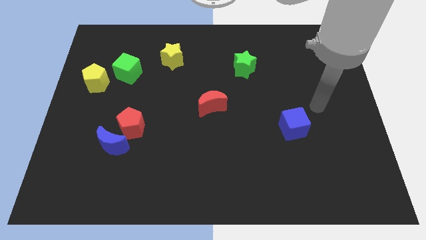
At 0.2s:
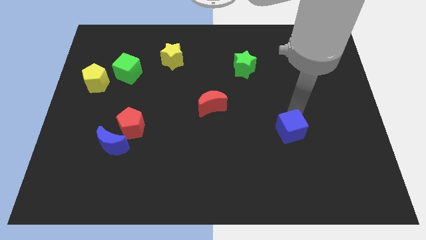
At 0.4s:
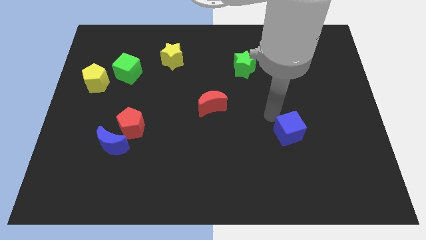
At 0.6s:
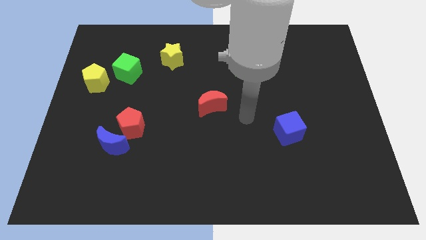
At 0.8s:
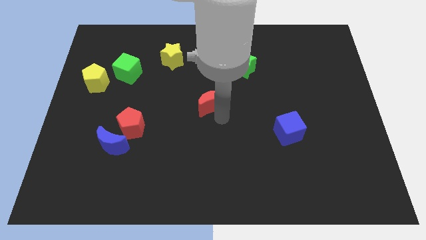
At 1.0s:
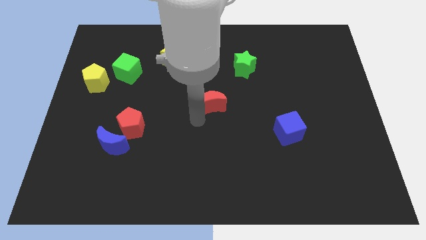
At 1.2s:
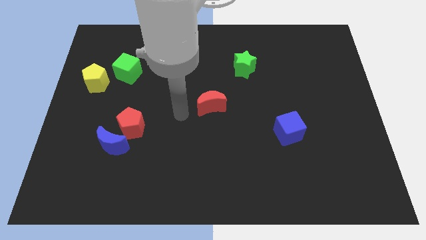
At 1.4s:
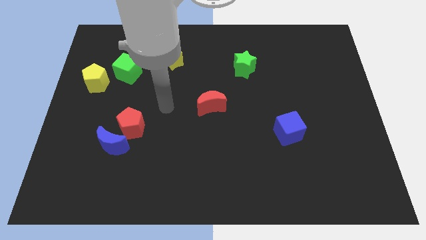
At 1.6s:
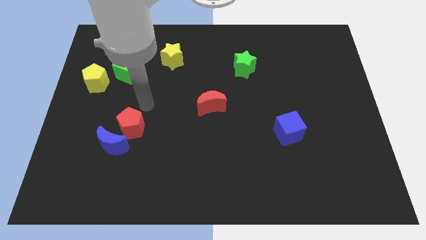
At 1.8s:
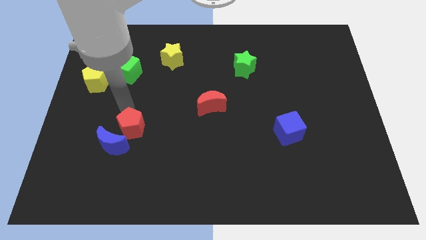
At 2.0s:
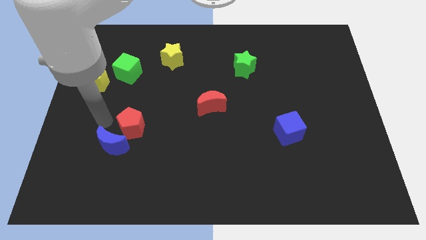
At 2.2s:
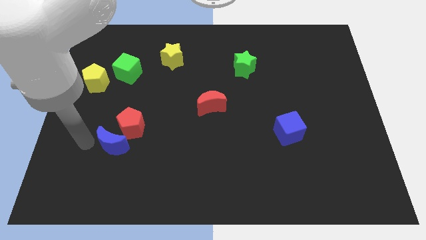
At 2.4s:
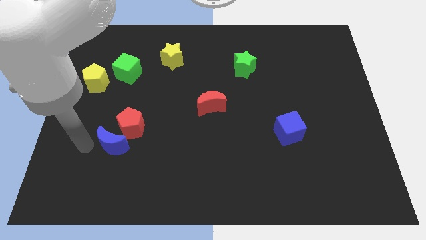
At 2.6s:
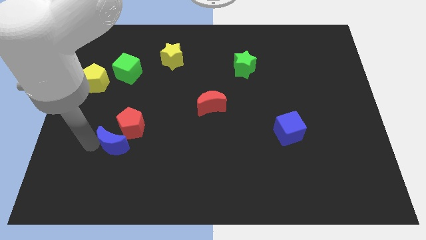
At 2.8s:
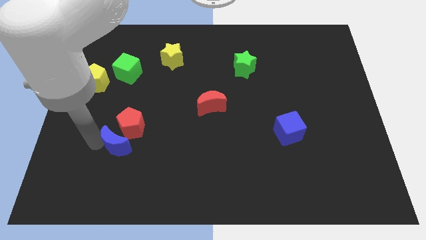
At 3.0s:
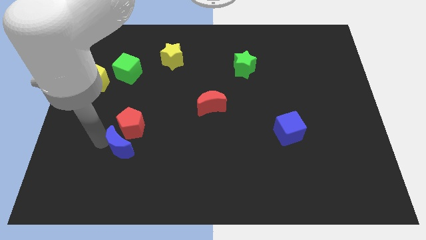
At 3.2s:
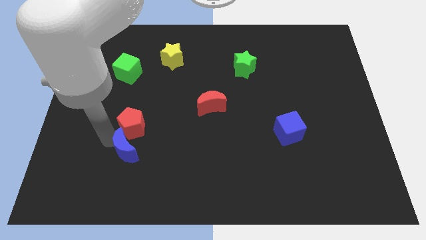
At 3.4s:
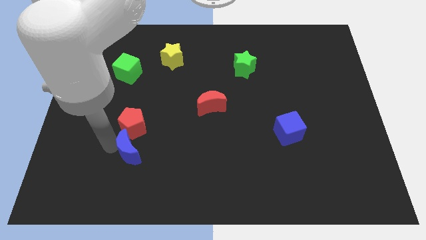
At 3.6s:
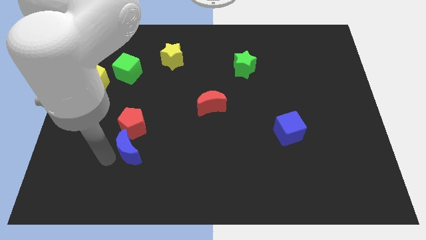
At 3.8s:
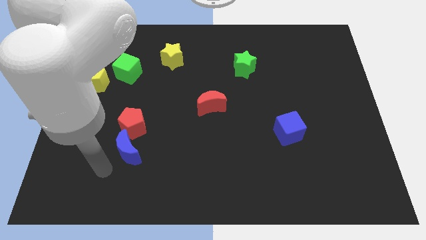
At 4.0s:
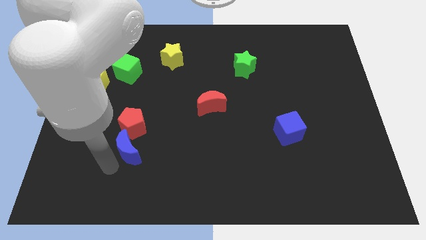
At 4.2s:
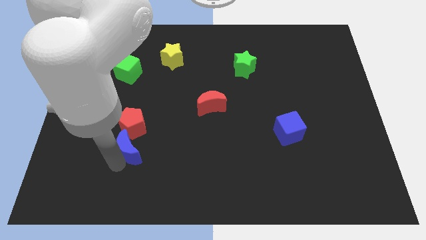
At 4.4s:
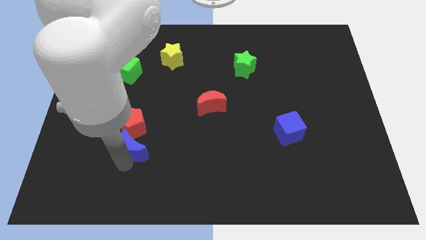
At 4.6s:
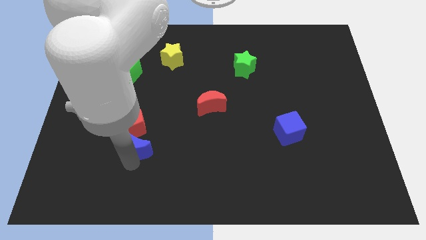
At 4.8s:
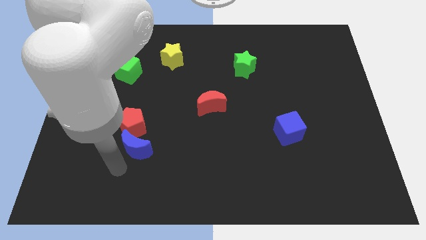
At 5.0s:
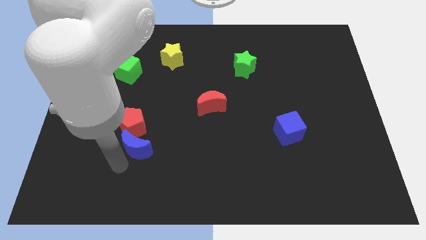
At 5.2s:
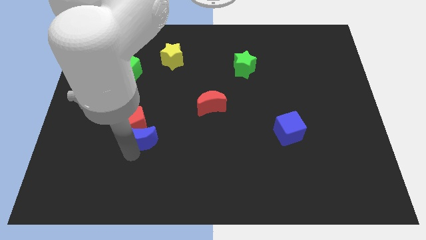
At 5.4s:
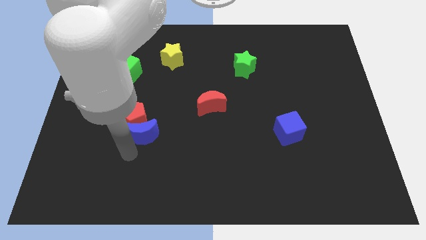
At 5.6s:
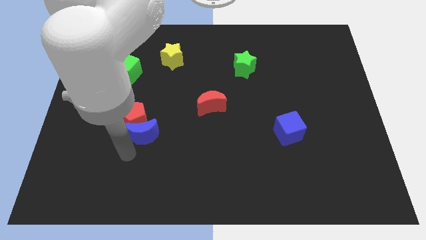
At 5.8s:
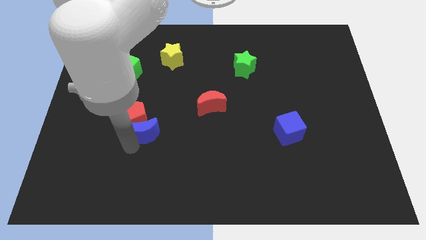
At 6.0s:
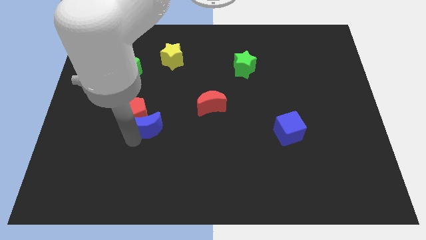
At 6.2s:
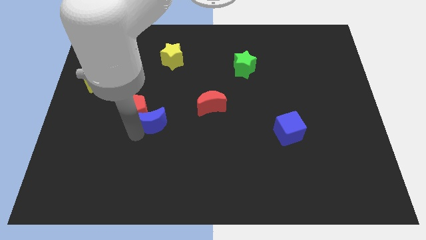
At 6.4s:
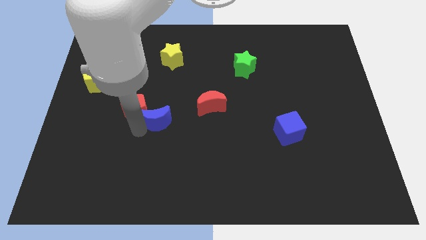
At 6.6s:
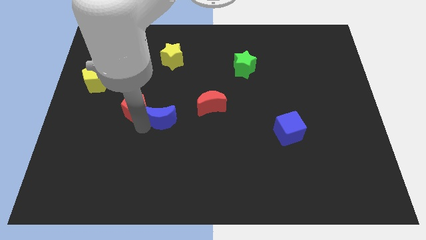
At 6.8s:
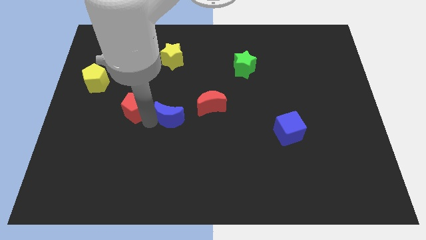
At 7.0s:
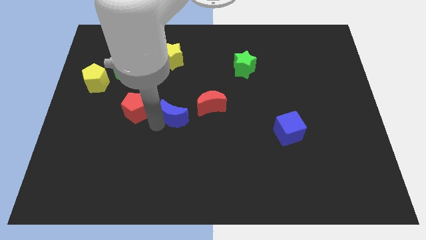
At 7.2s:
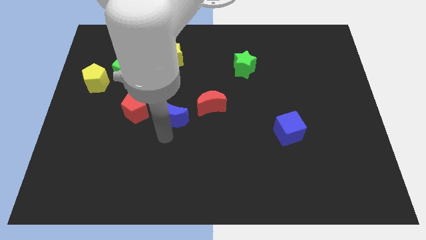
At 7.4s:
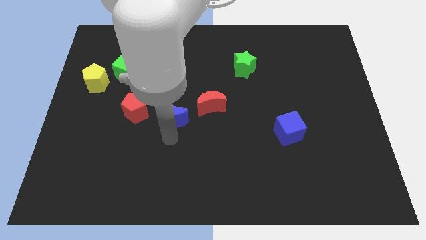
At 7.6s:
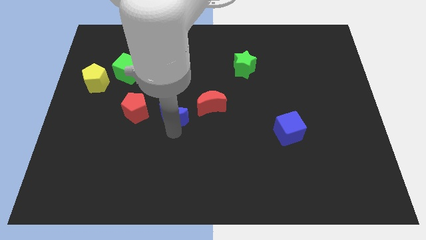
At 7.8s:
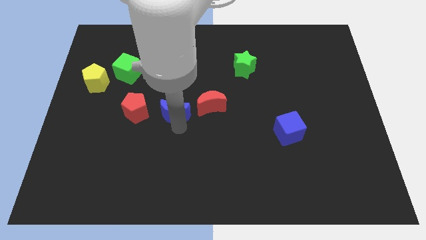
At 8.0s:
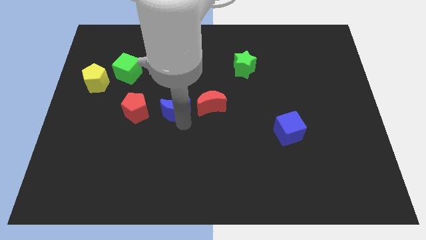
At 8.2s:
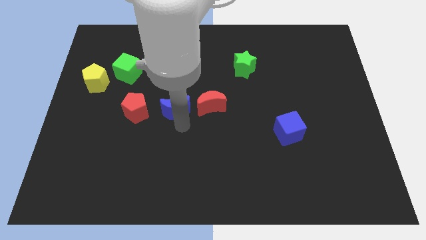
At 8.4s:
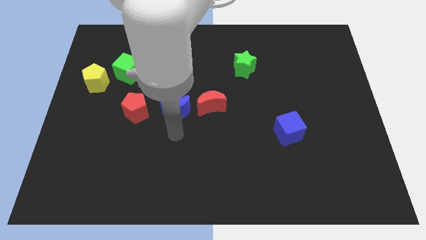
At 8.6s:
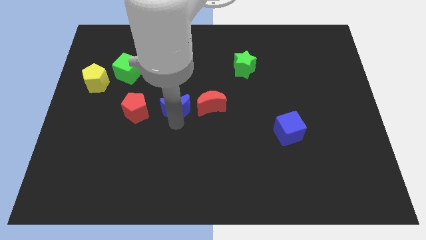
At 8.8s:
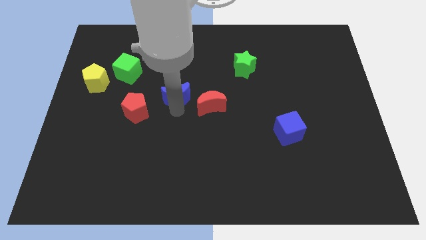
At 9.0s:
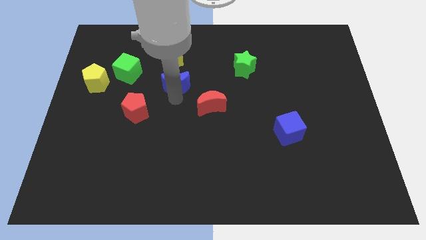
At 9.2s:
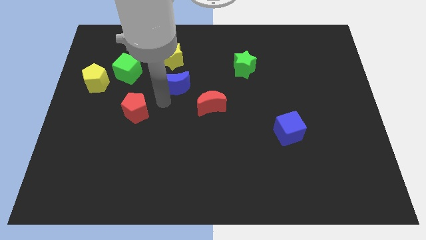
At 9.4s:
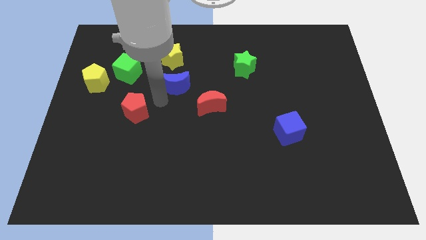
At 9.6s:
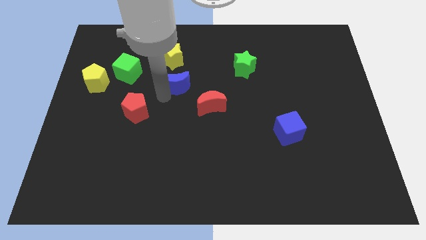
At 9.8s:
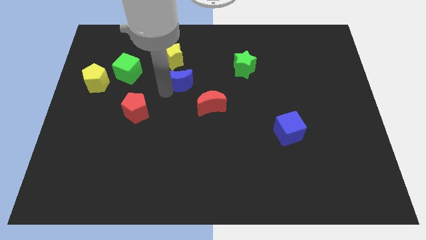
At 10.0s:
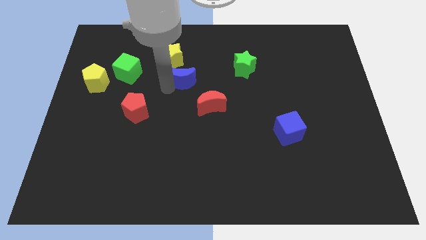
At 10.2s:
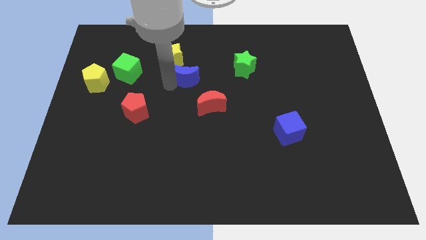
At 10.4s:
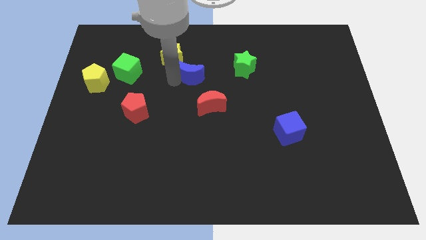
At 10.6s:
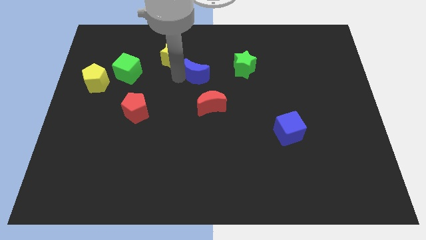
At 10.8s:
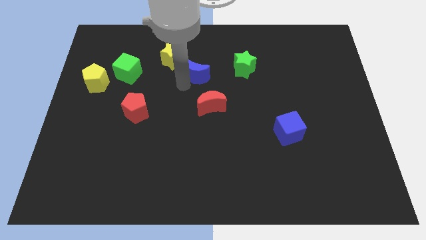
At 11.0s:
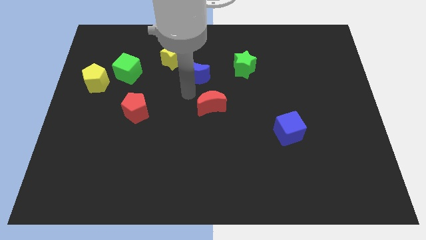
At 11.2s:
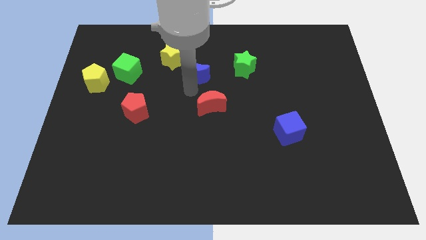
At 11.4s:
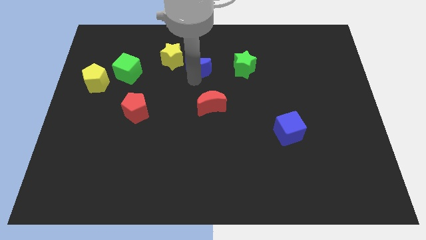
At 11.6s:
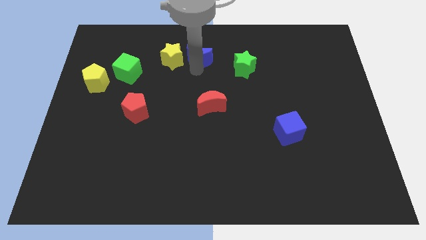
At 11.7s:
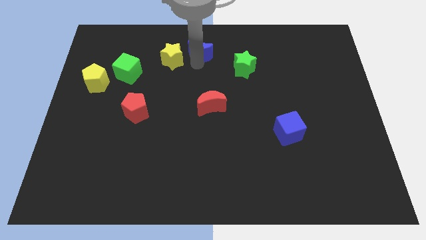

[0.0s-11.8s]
push the blue moon to the towards your base

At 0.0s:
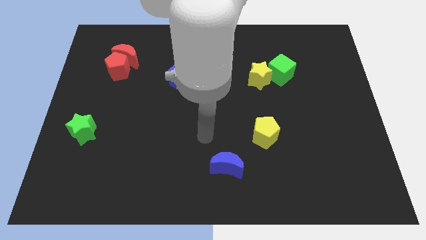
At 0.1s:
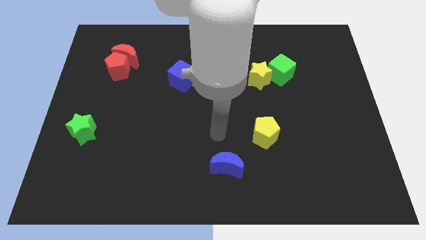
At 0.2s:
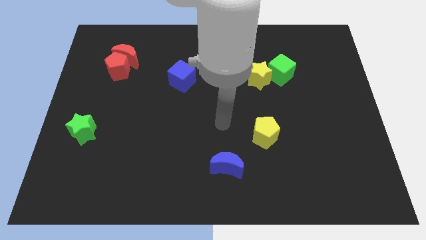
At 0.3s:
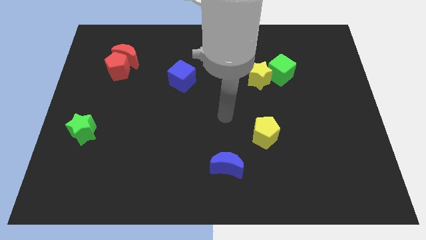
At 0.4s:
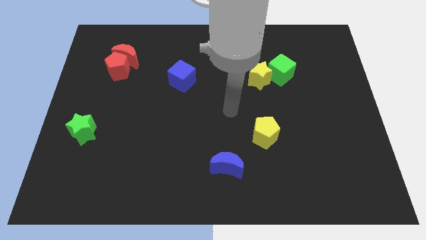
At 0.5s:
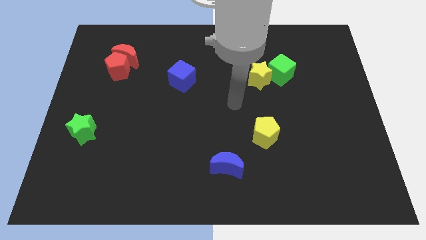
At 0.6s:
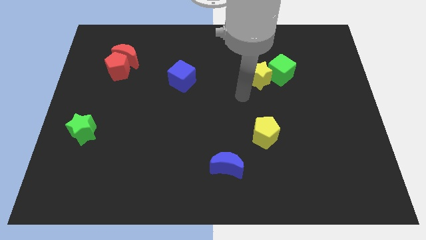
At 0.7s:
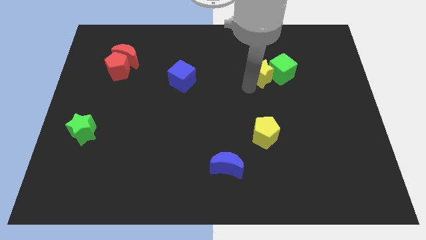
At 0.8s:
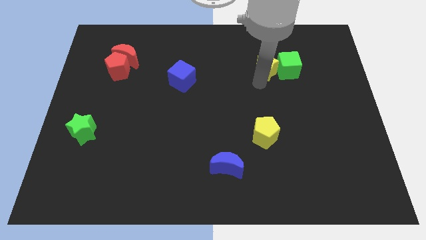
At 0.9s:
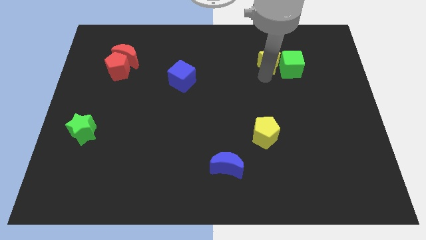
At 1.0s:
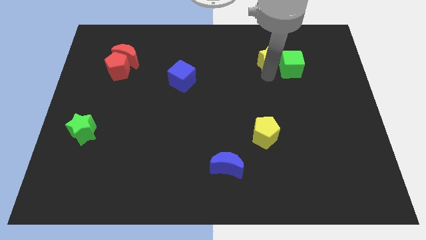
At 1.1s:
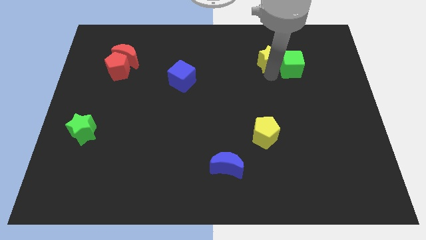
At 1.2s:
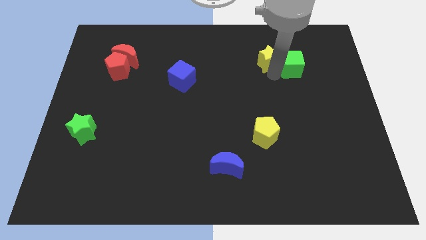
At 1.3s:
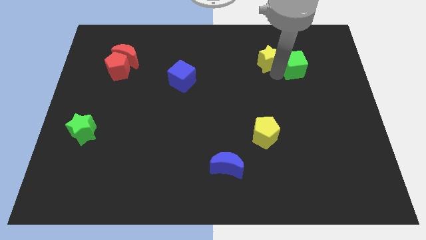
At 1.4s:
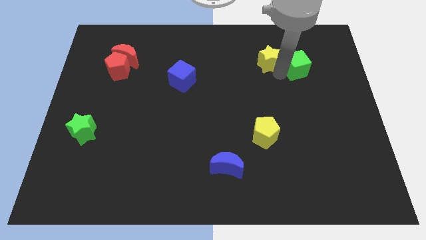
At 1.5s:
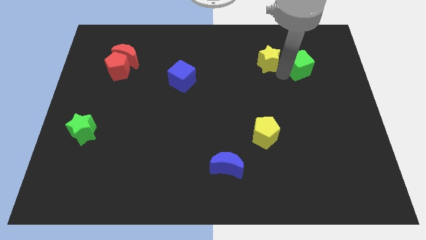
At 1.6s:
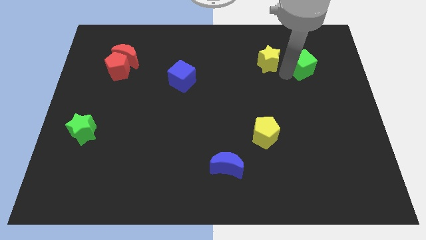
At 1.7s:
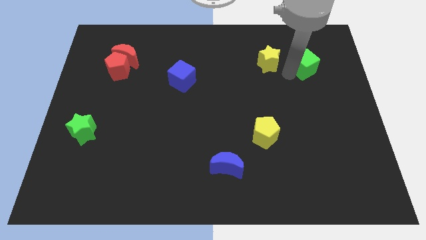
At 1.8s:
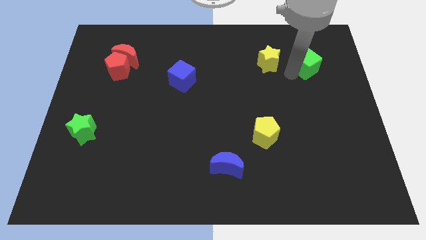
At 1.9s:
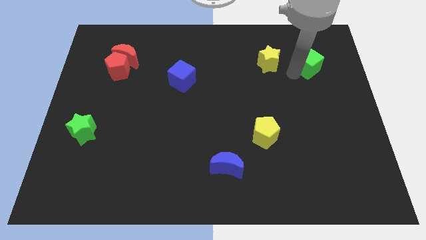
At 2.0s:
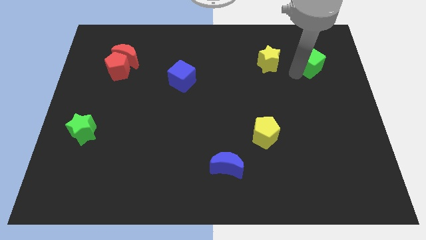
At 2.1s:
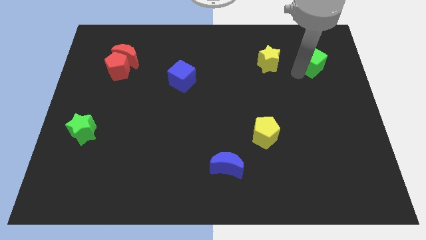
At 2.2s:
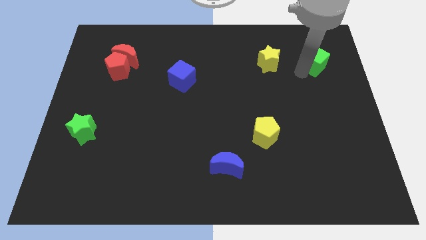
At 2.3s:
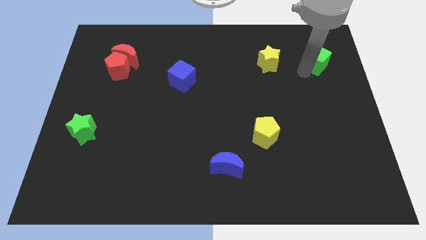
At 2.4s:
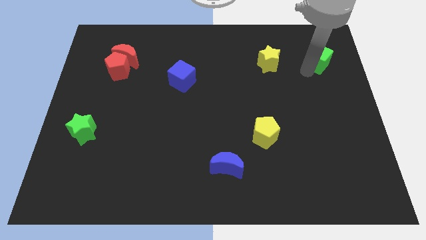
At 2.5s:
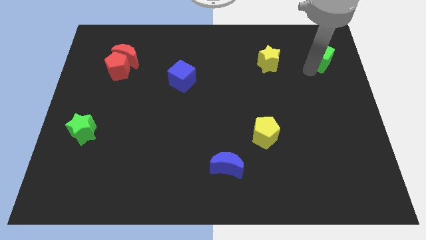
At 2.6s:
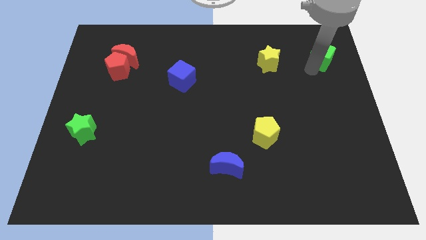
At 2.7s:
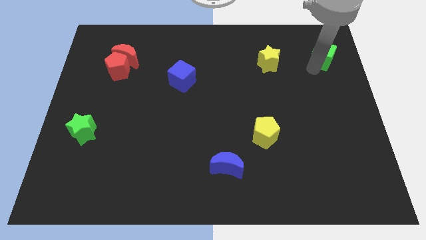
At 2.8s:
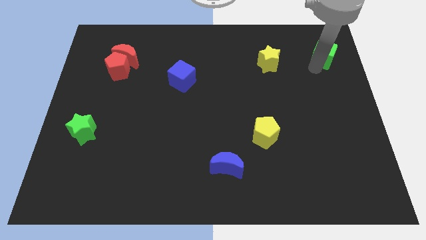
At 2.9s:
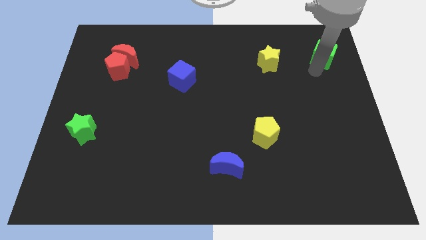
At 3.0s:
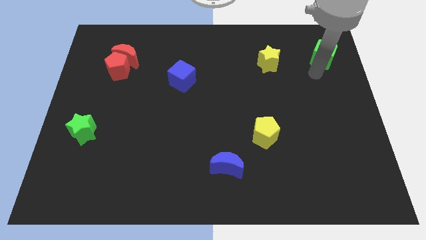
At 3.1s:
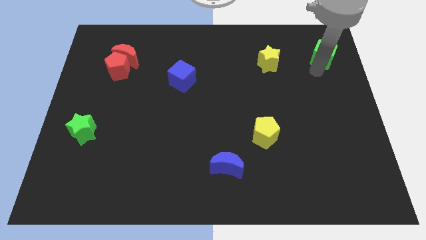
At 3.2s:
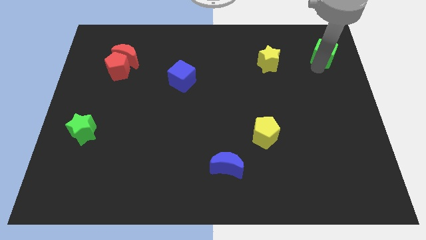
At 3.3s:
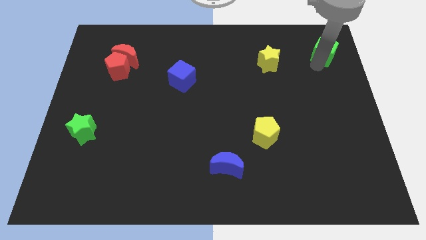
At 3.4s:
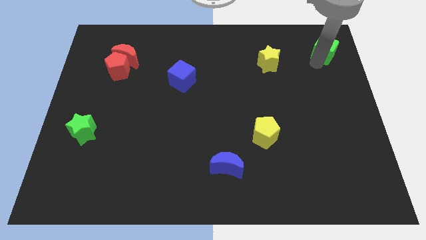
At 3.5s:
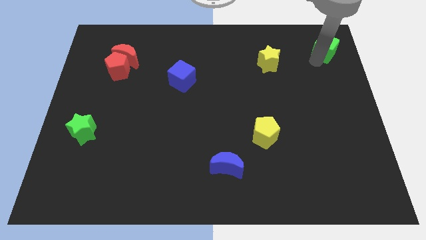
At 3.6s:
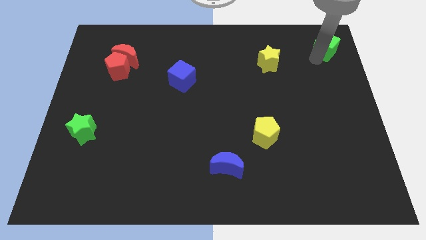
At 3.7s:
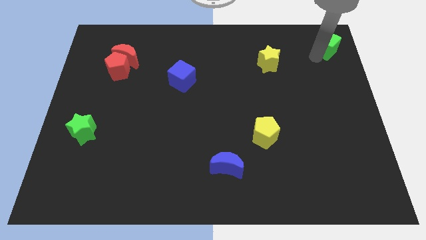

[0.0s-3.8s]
push the green cube to the top right of the board
